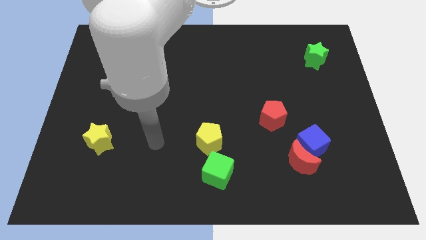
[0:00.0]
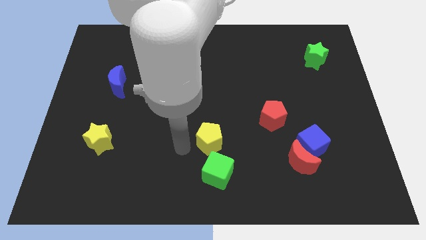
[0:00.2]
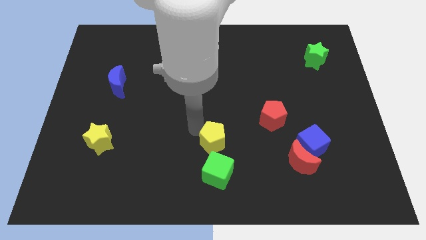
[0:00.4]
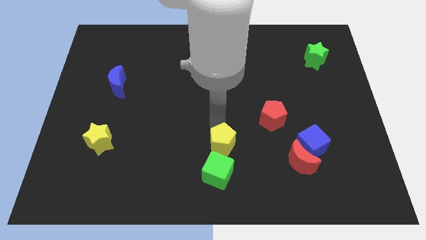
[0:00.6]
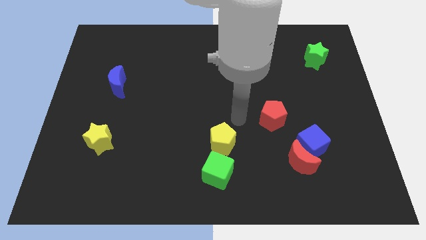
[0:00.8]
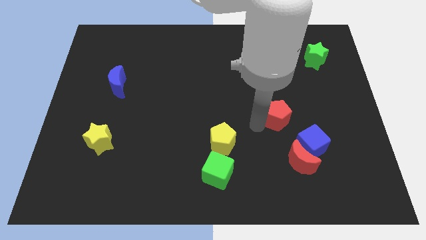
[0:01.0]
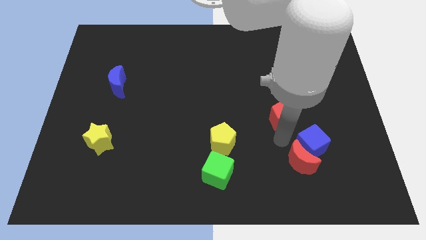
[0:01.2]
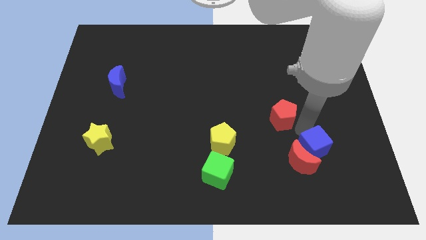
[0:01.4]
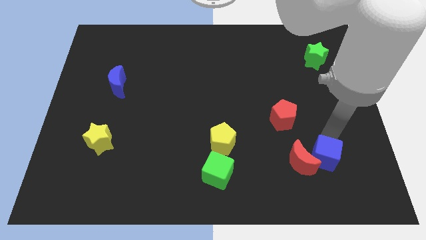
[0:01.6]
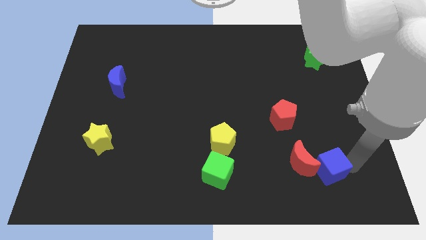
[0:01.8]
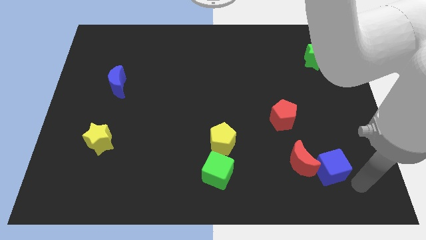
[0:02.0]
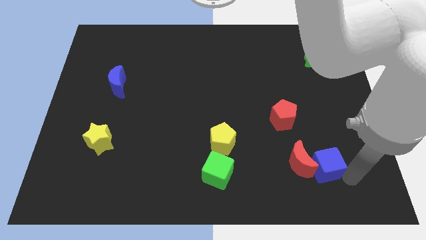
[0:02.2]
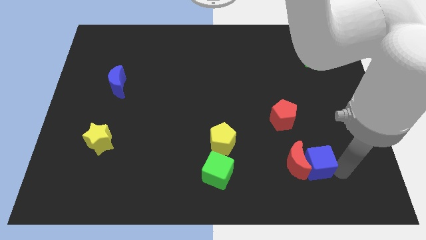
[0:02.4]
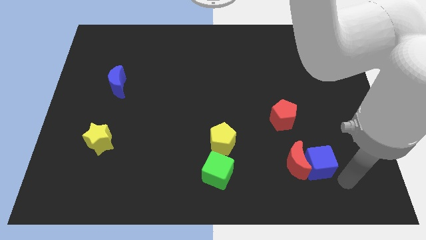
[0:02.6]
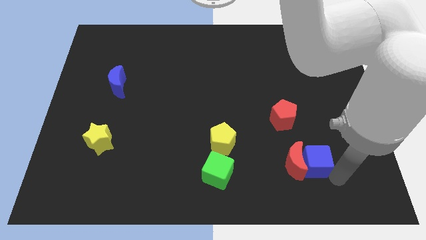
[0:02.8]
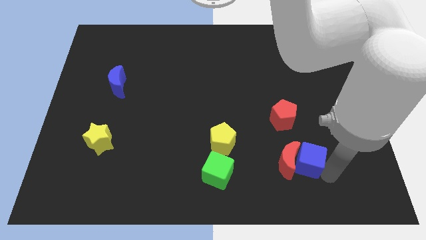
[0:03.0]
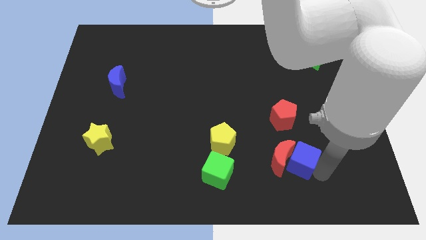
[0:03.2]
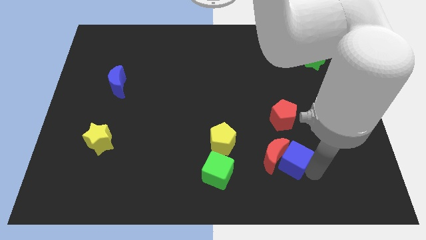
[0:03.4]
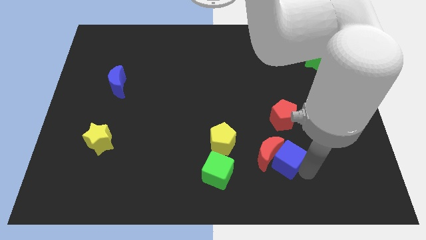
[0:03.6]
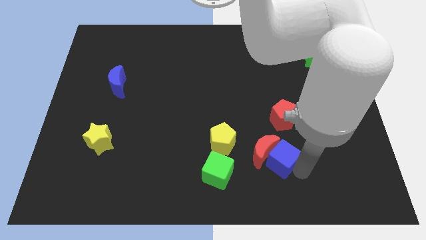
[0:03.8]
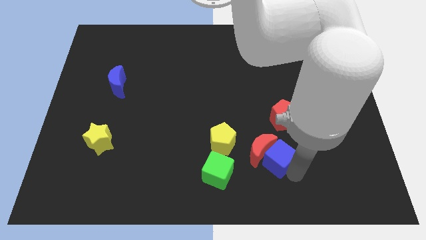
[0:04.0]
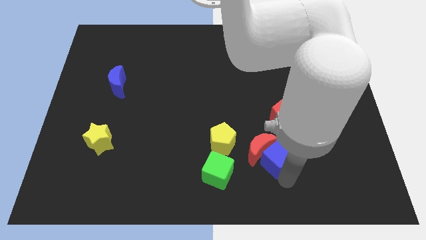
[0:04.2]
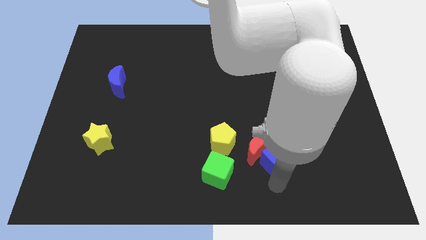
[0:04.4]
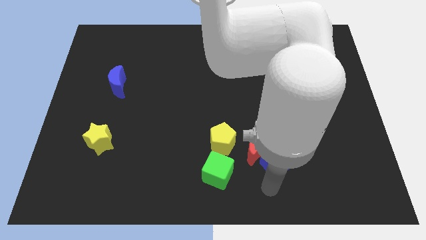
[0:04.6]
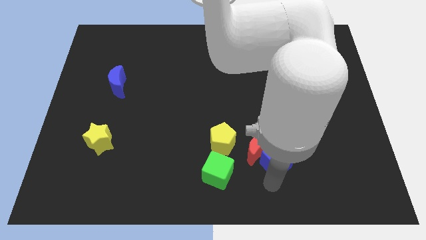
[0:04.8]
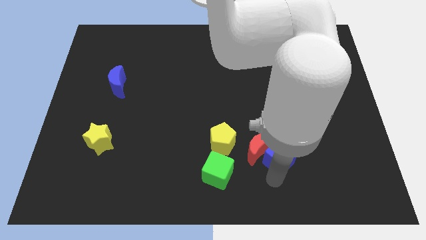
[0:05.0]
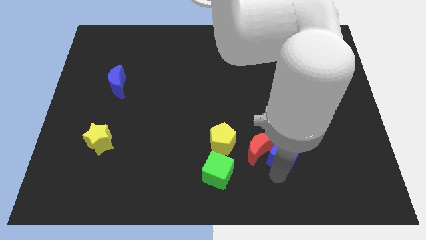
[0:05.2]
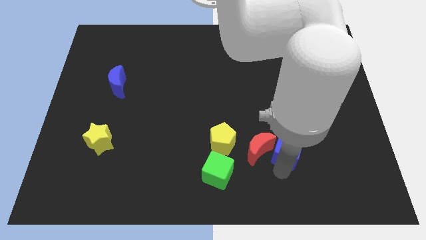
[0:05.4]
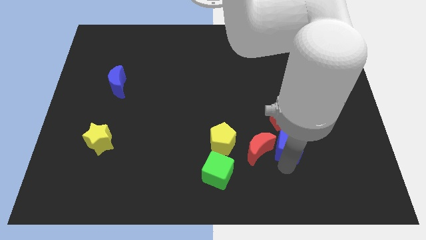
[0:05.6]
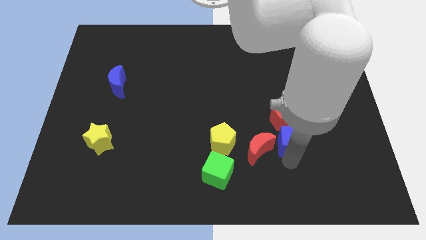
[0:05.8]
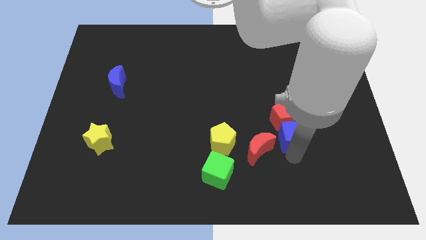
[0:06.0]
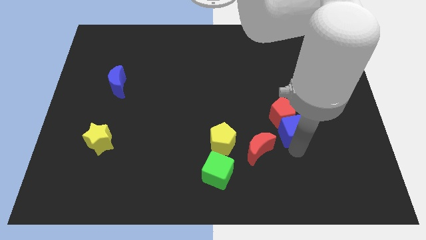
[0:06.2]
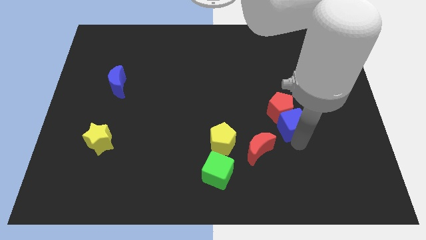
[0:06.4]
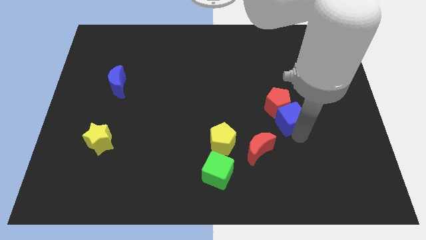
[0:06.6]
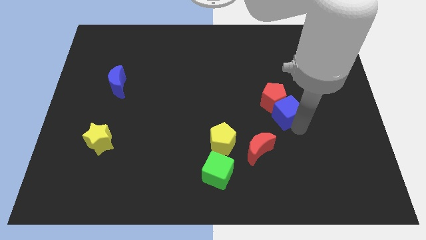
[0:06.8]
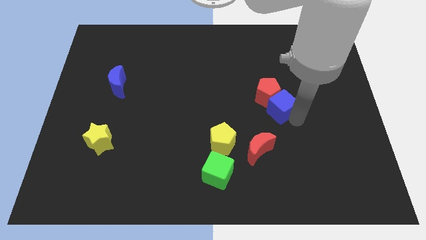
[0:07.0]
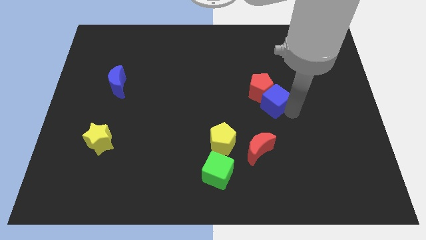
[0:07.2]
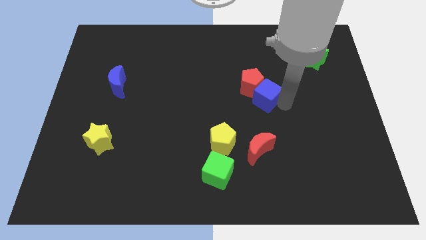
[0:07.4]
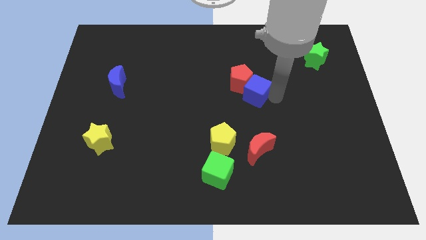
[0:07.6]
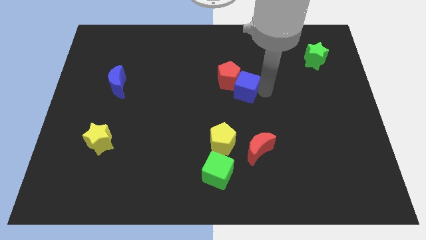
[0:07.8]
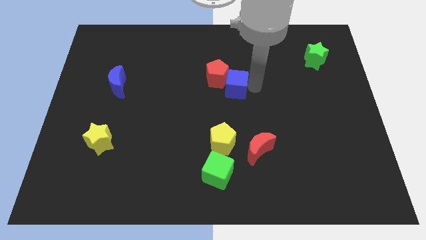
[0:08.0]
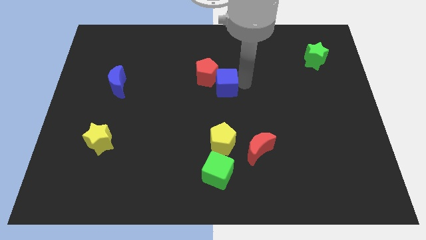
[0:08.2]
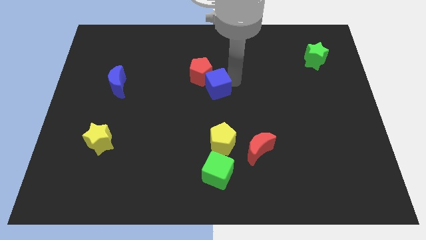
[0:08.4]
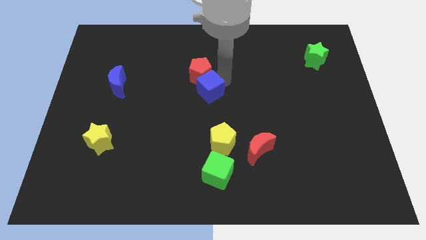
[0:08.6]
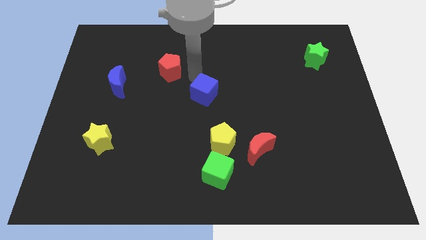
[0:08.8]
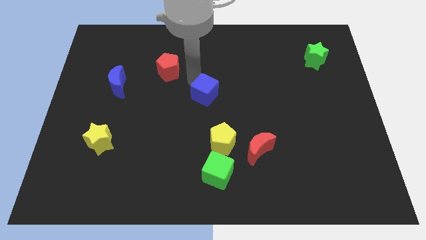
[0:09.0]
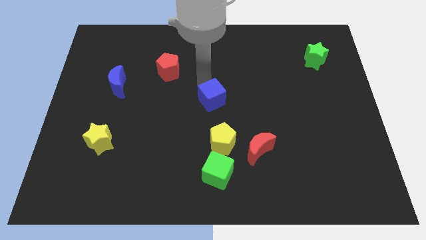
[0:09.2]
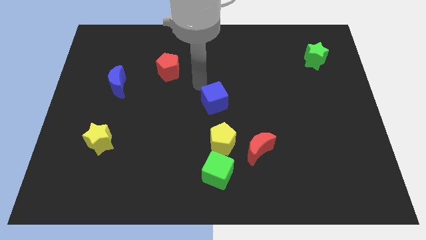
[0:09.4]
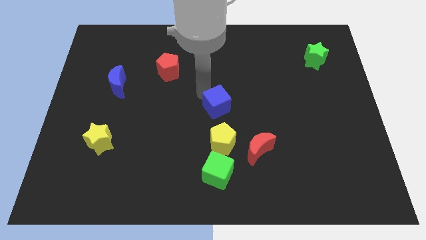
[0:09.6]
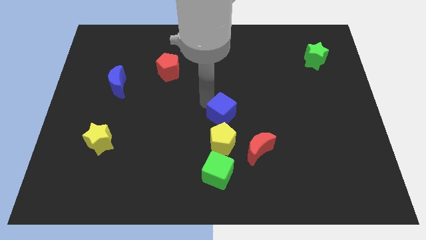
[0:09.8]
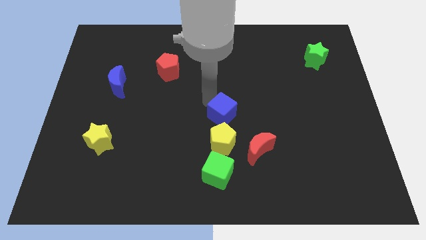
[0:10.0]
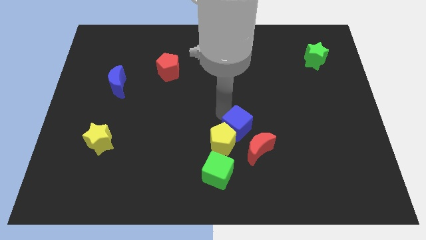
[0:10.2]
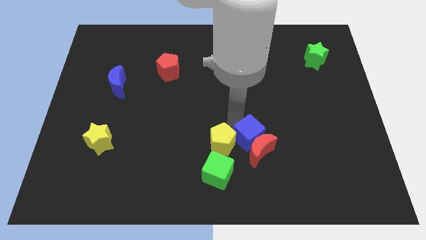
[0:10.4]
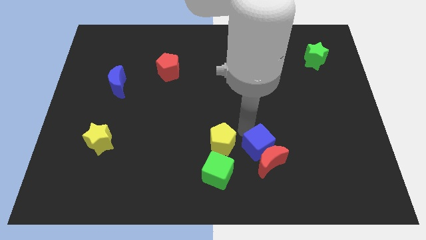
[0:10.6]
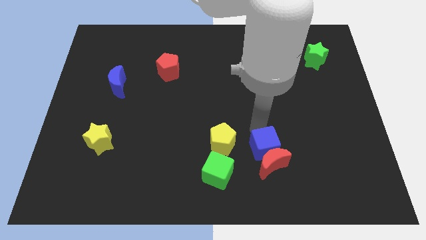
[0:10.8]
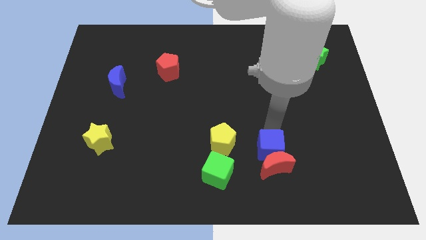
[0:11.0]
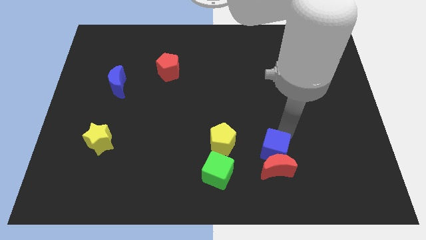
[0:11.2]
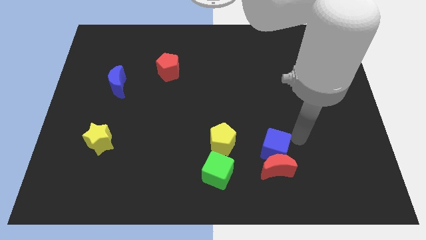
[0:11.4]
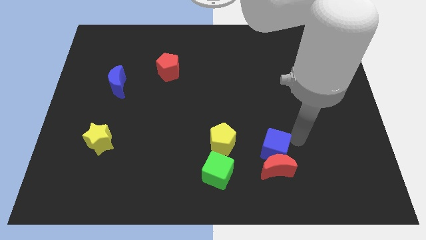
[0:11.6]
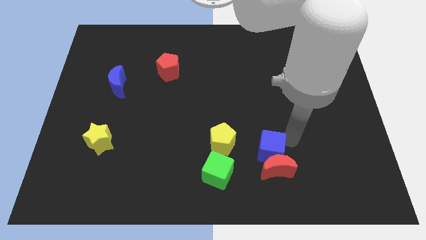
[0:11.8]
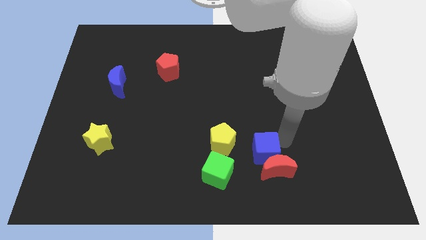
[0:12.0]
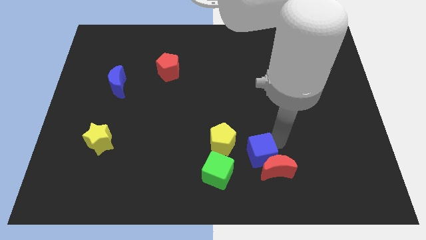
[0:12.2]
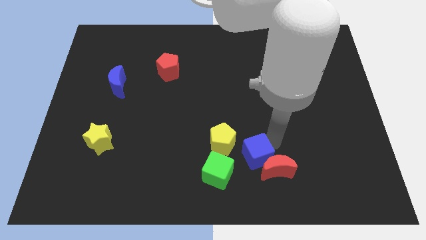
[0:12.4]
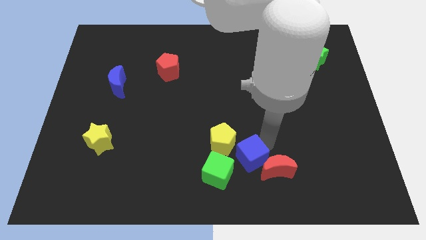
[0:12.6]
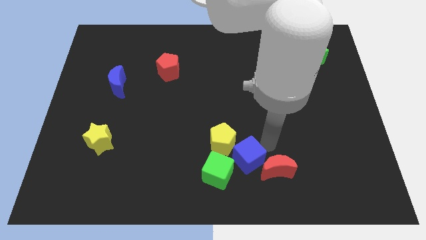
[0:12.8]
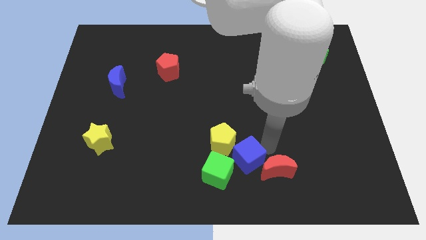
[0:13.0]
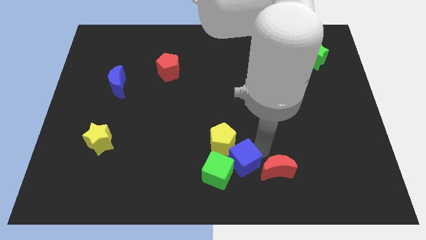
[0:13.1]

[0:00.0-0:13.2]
move the blue cube to the green cube

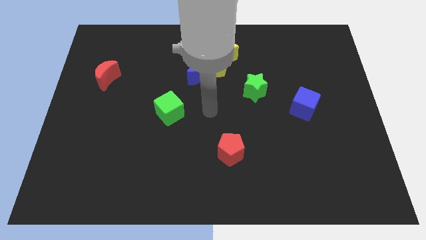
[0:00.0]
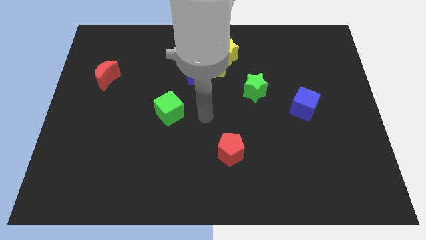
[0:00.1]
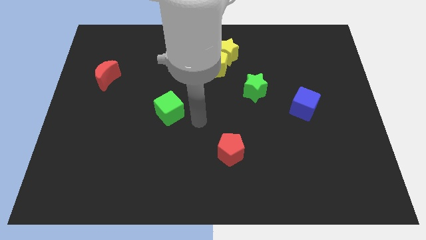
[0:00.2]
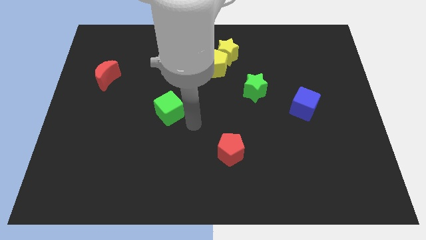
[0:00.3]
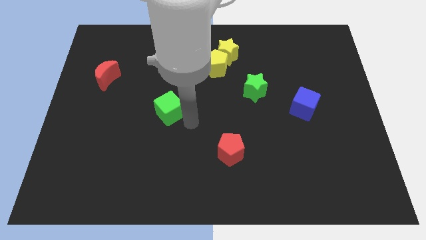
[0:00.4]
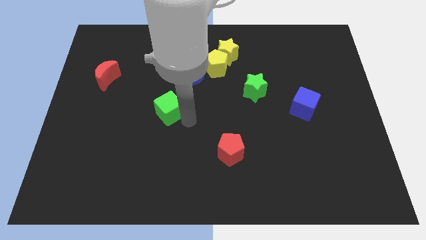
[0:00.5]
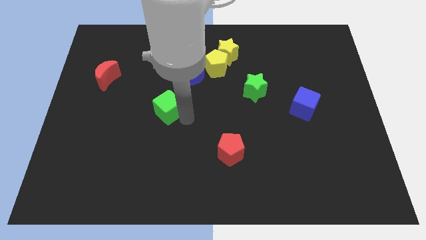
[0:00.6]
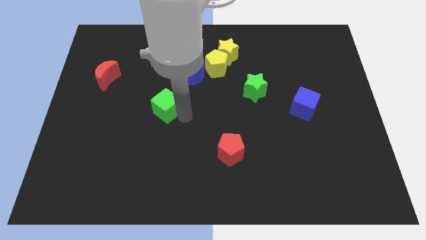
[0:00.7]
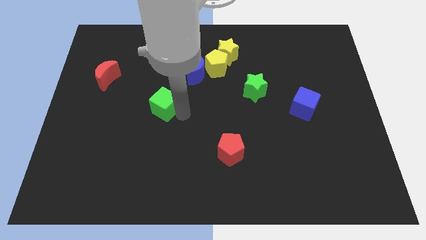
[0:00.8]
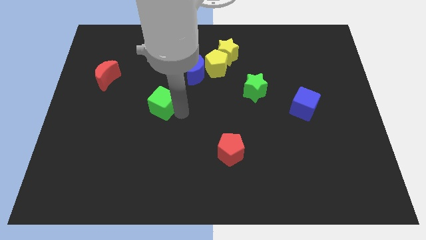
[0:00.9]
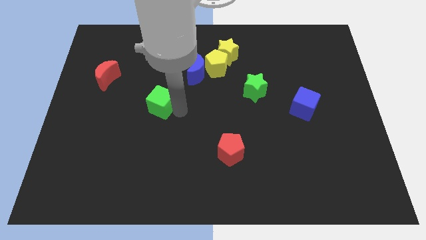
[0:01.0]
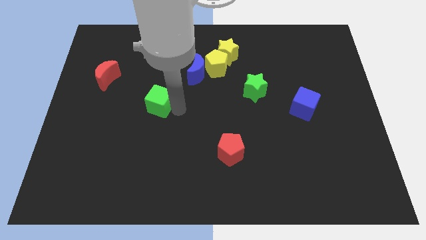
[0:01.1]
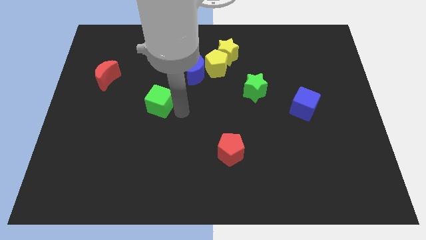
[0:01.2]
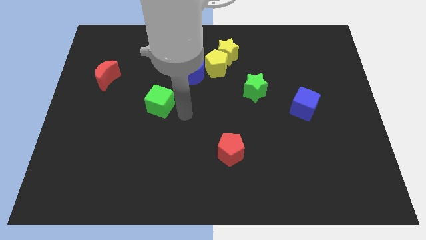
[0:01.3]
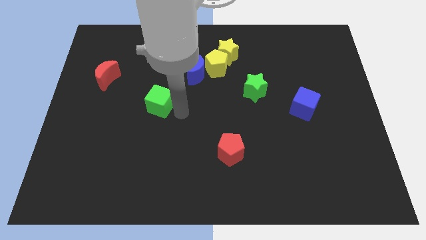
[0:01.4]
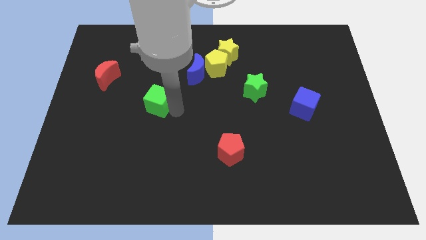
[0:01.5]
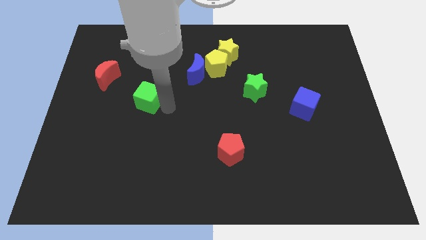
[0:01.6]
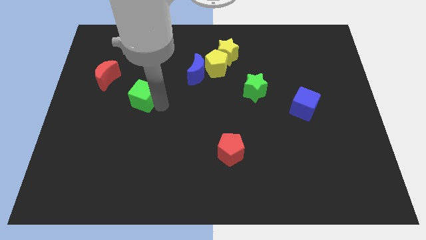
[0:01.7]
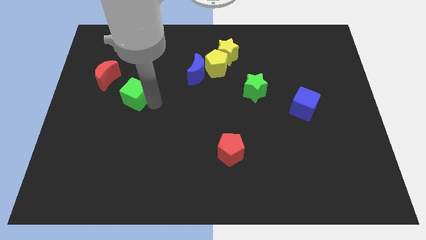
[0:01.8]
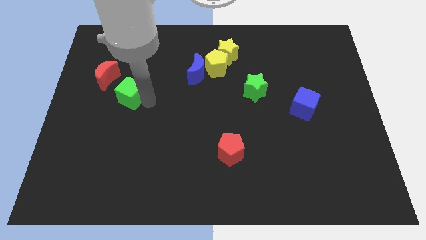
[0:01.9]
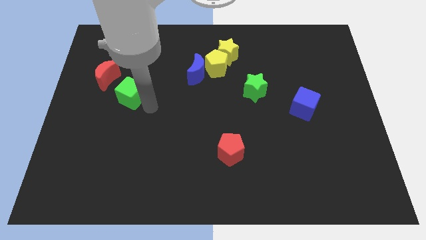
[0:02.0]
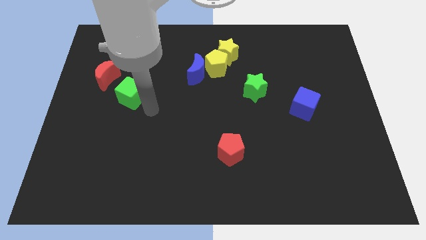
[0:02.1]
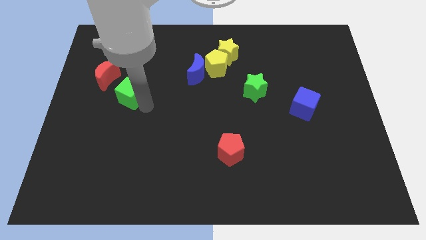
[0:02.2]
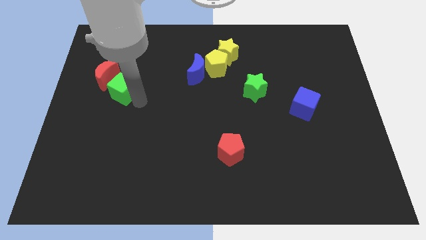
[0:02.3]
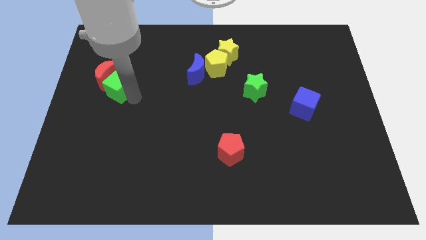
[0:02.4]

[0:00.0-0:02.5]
put the green cube towards the red moon
